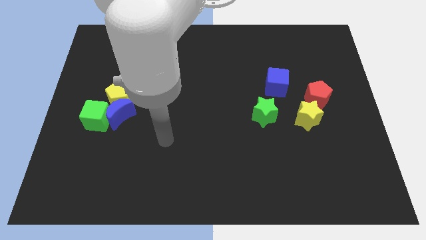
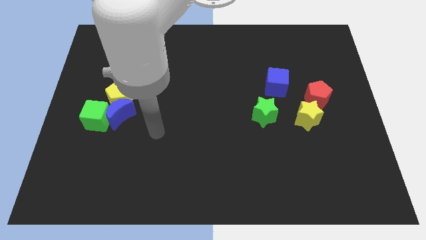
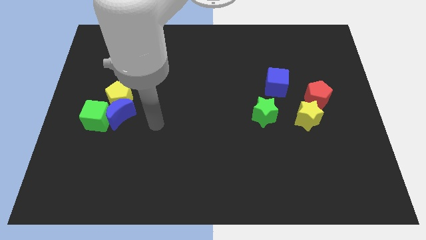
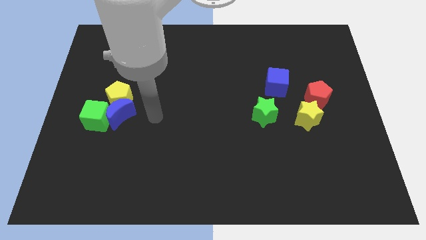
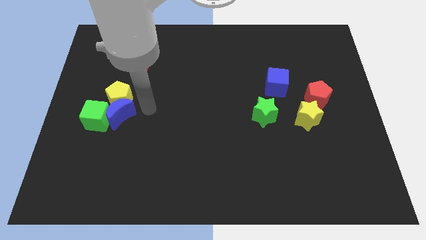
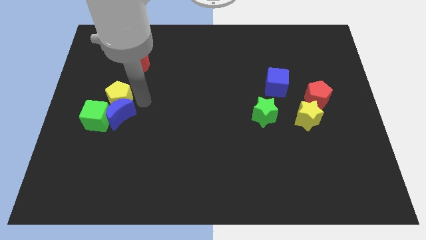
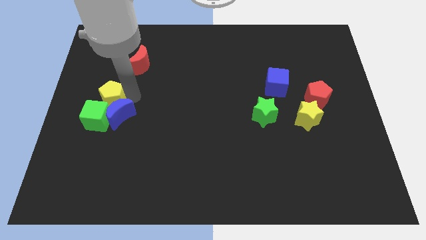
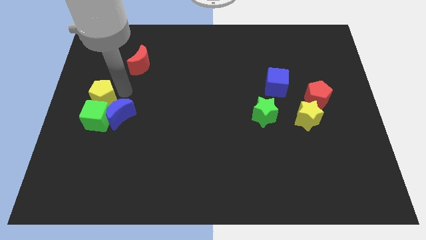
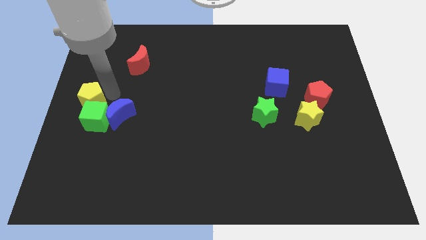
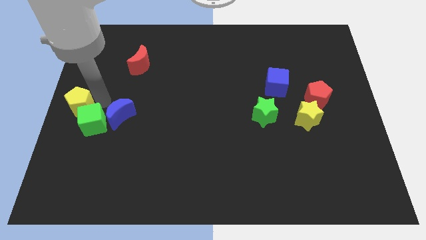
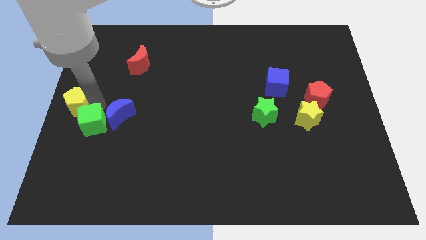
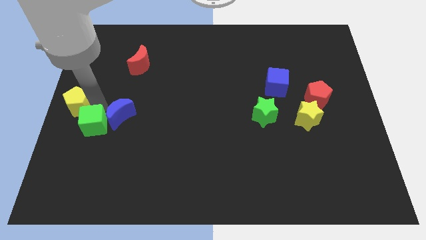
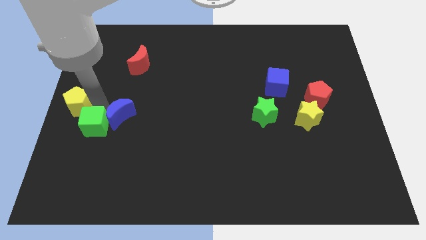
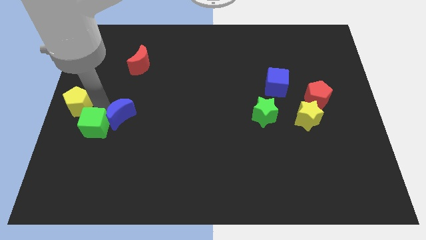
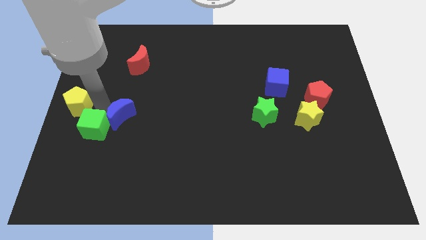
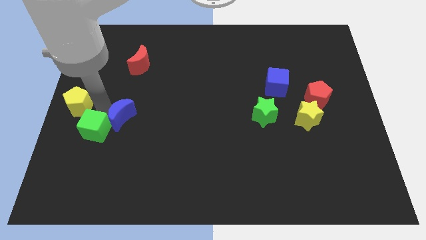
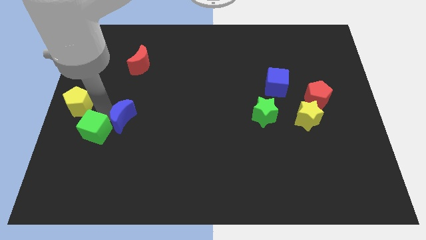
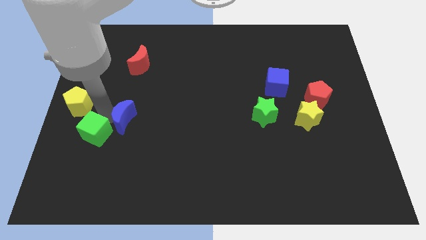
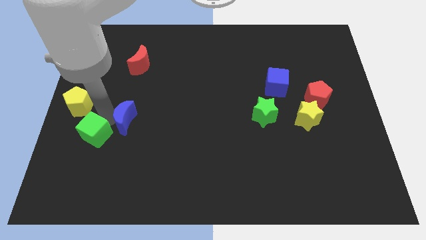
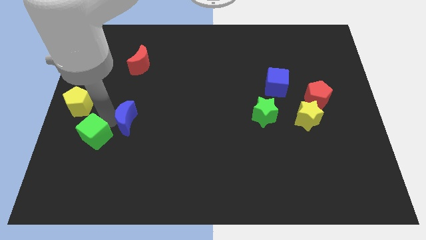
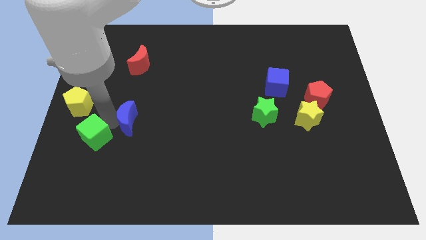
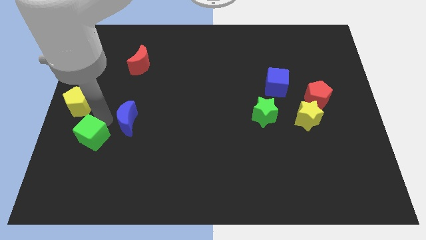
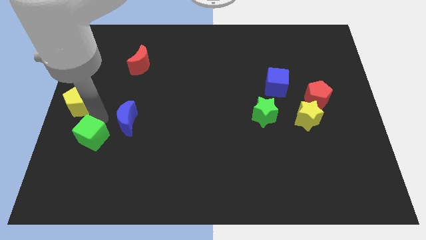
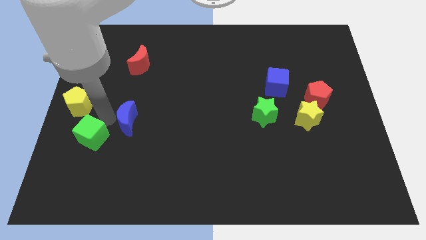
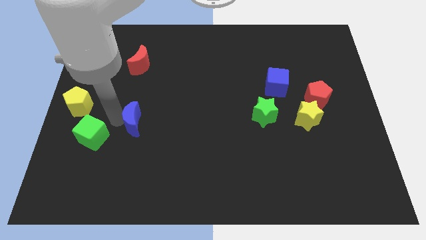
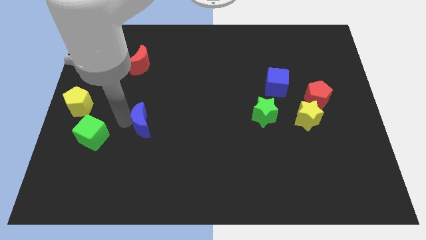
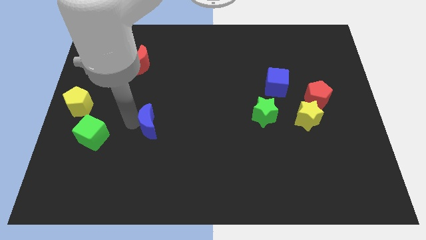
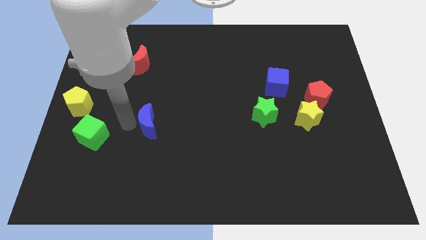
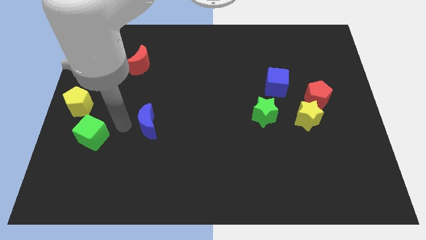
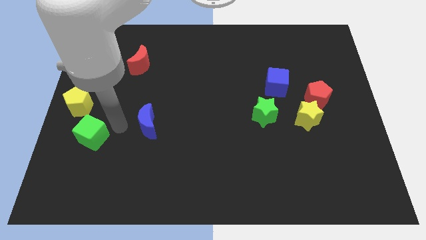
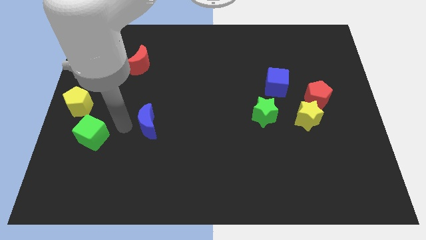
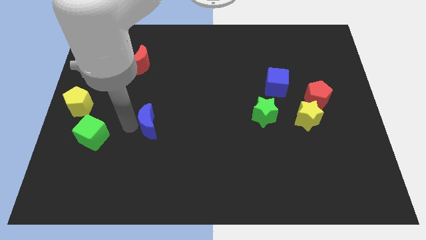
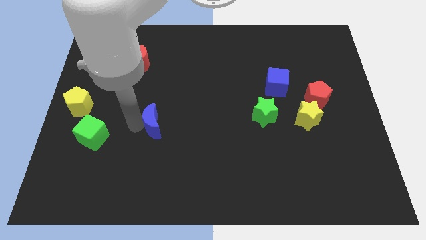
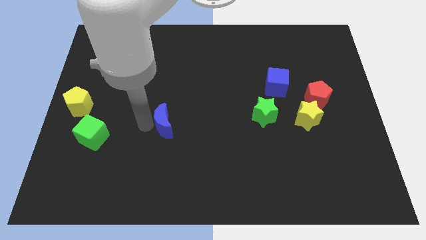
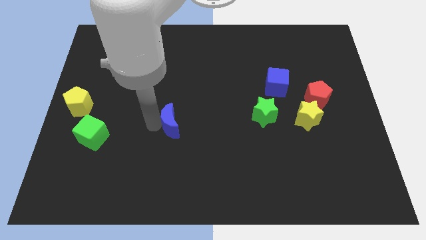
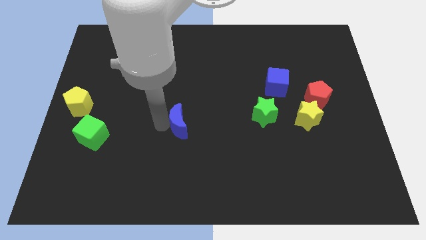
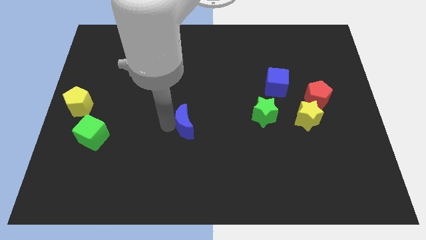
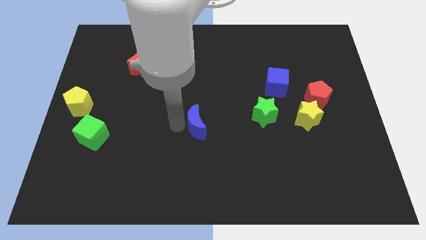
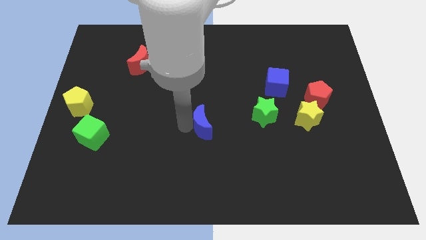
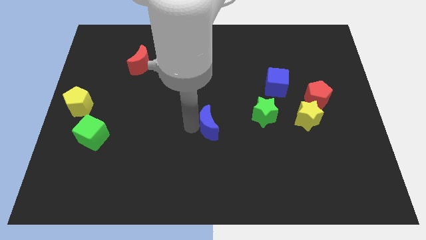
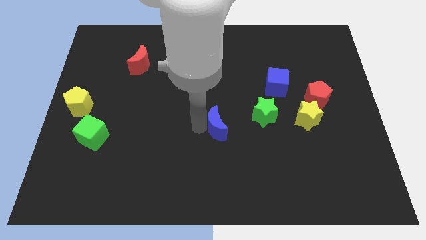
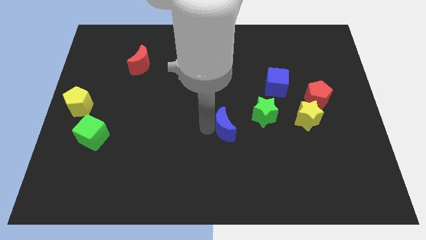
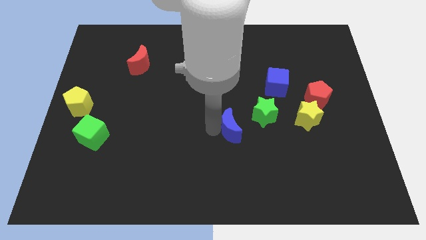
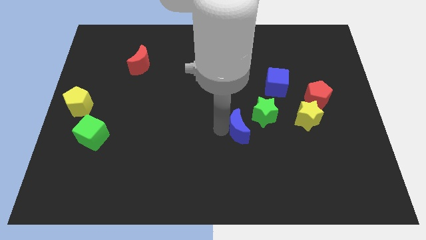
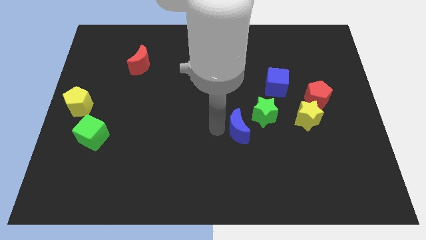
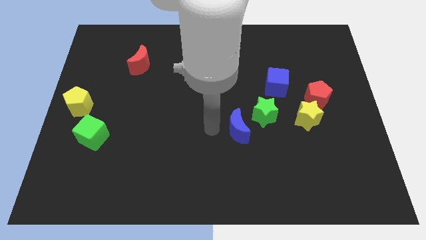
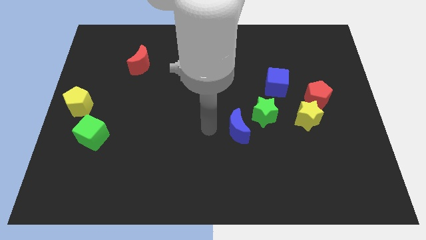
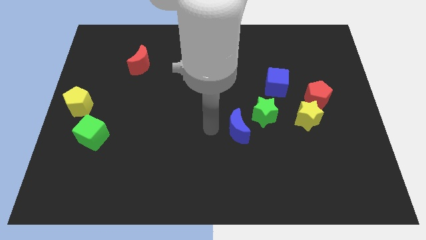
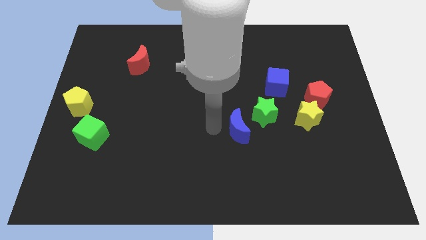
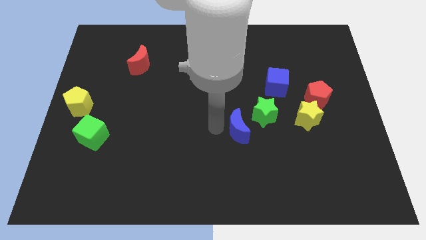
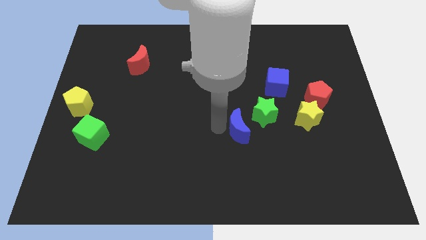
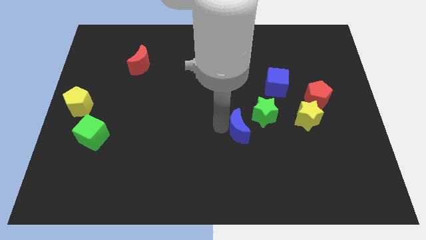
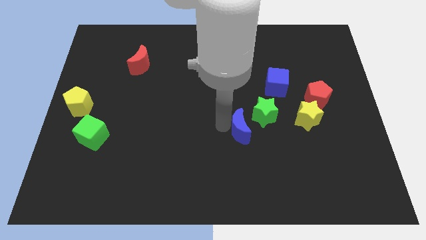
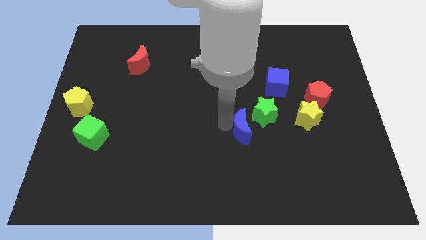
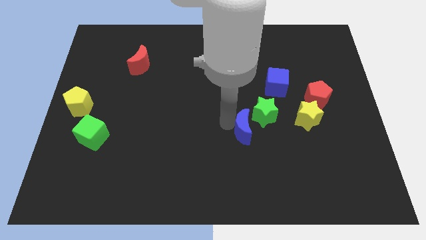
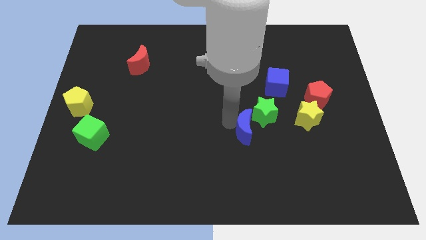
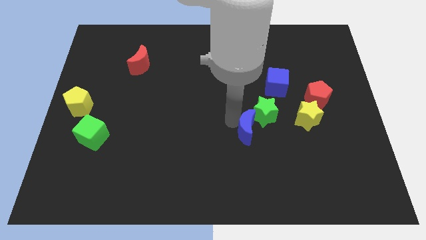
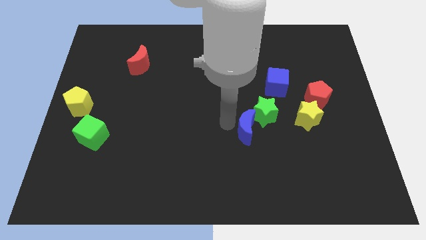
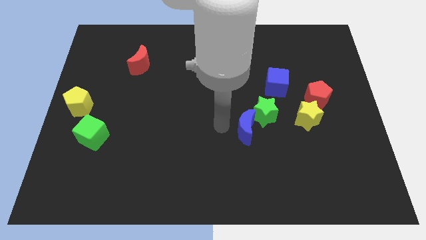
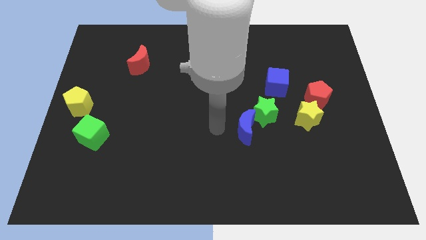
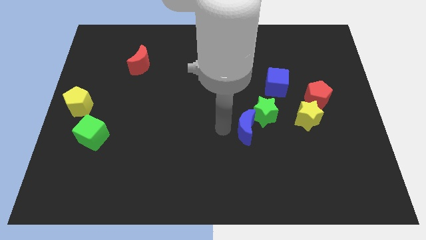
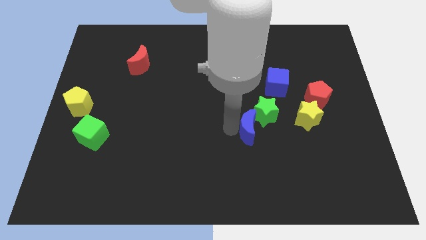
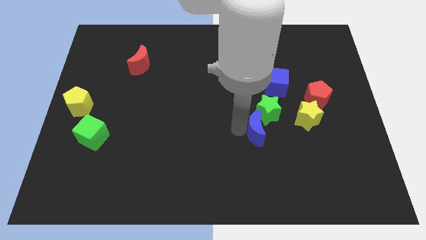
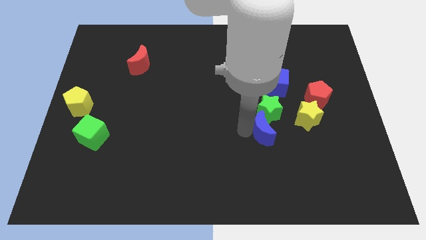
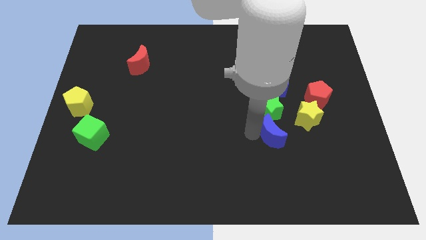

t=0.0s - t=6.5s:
slide the blue moon to the bottom of the blue cube

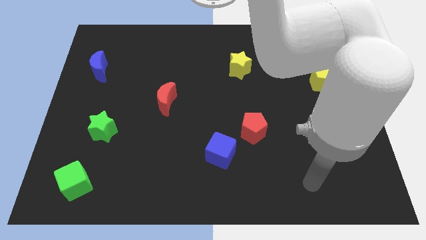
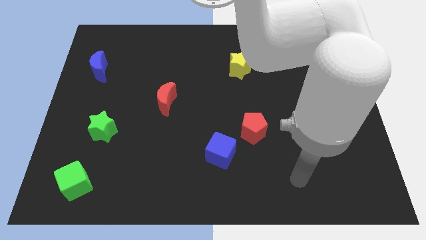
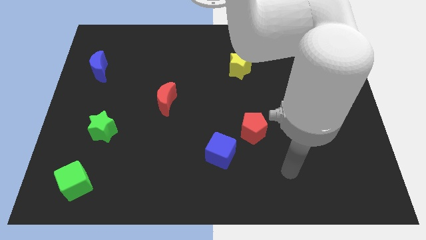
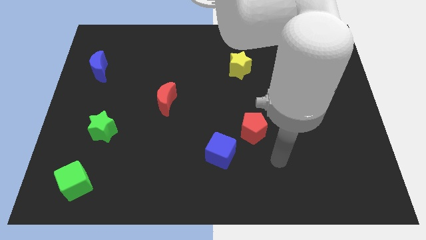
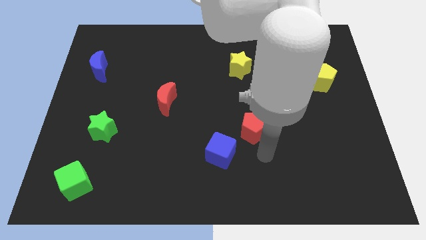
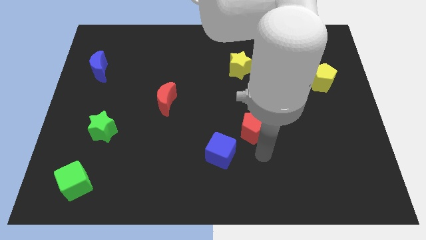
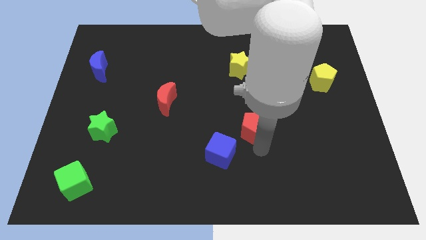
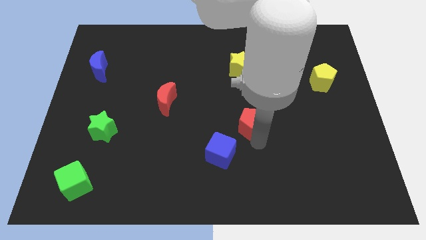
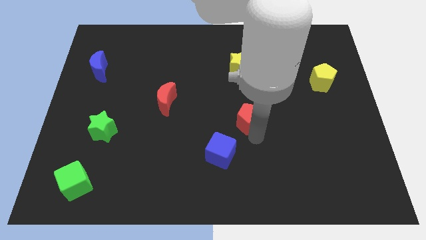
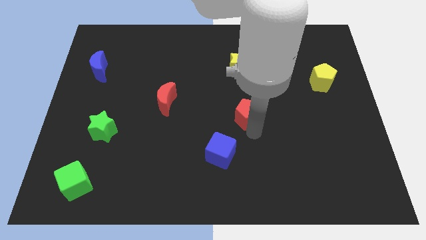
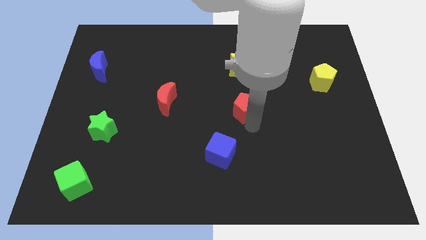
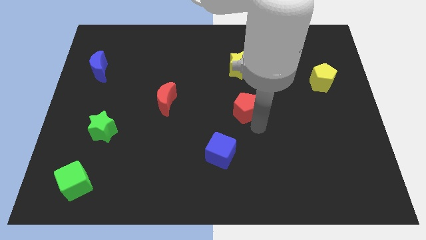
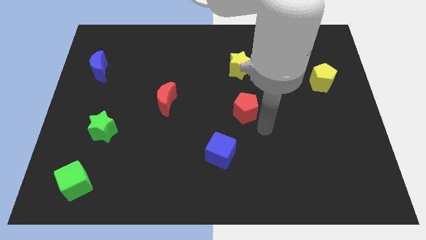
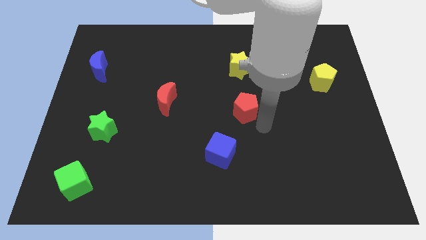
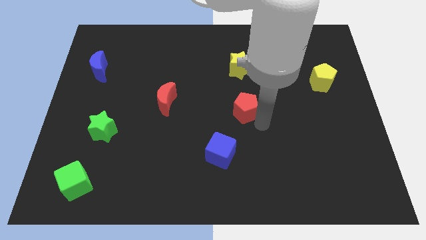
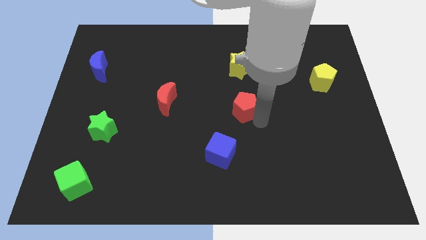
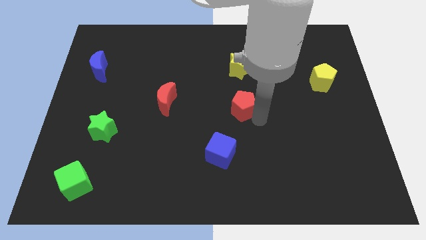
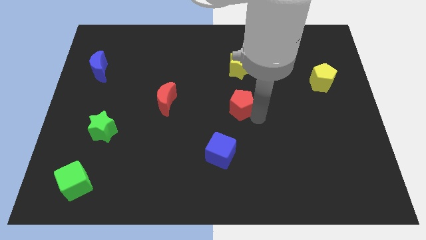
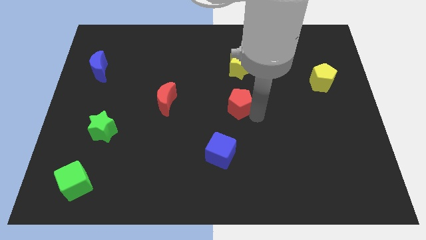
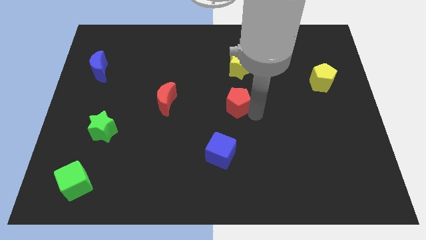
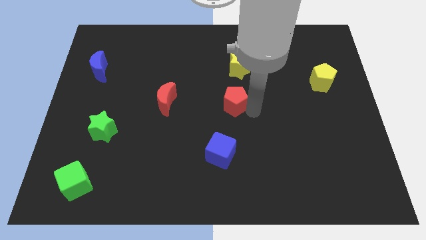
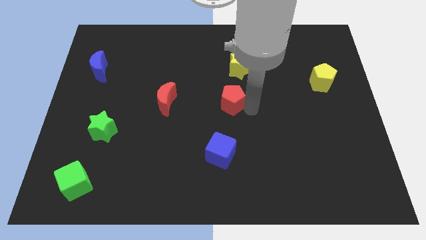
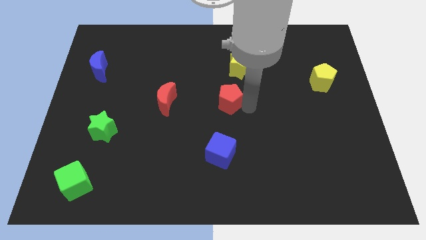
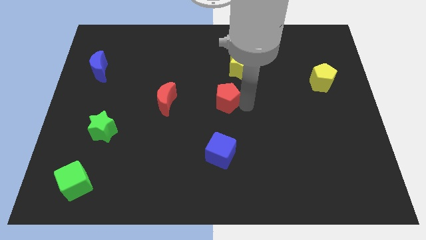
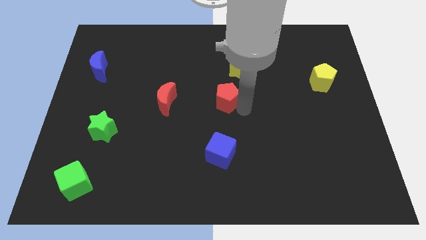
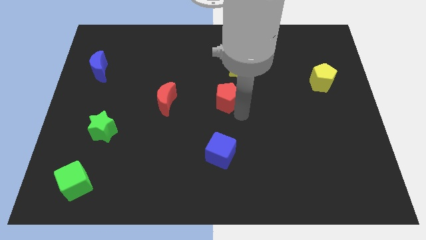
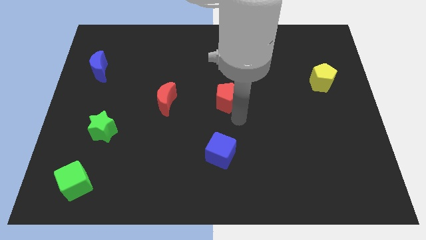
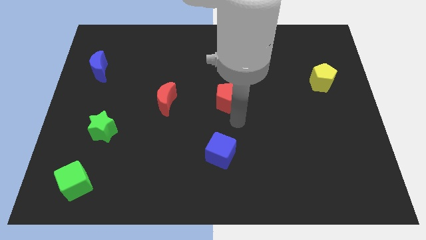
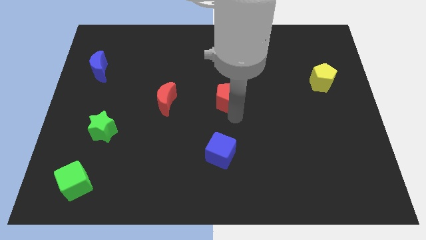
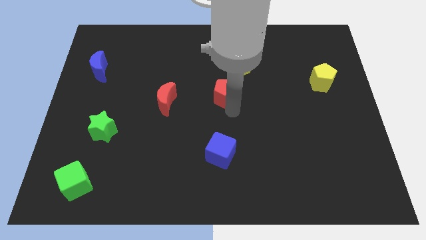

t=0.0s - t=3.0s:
put the red pentagon diagonally down and to the left of the yellow star
